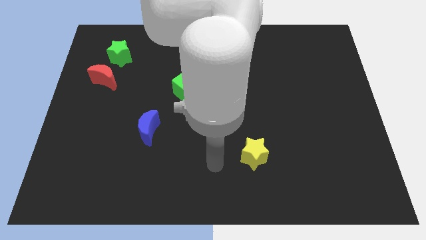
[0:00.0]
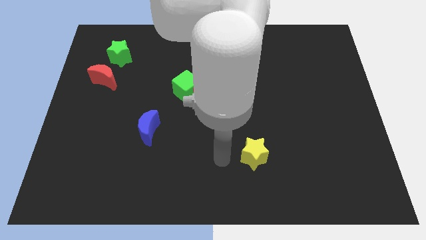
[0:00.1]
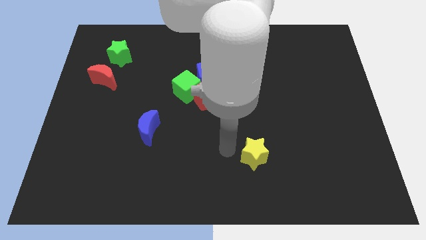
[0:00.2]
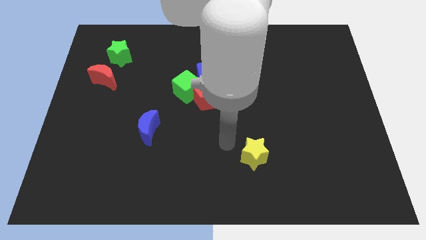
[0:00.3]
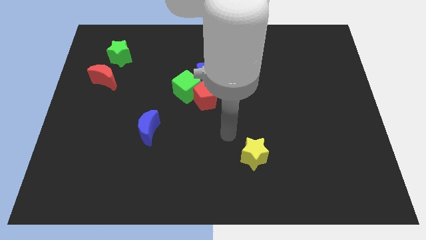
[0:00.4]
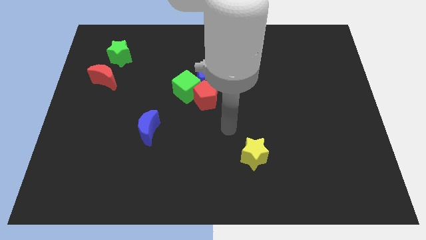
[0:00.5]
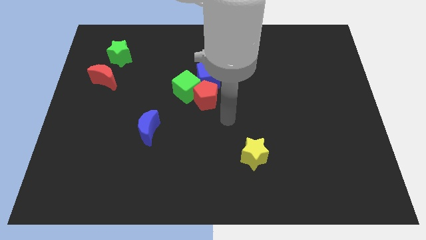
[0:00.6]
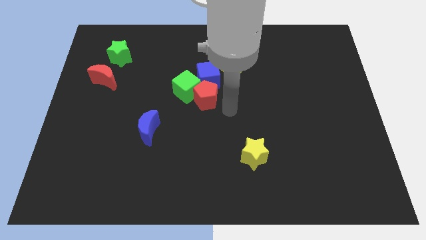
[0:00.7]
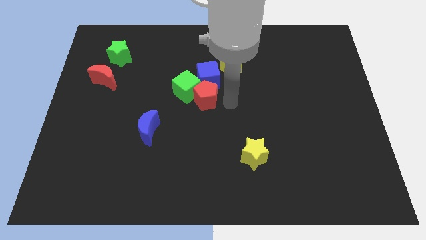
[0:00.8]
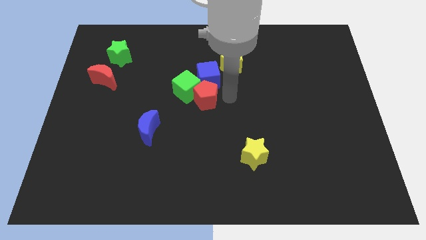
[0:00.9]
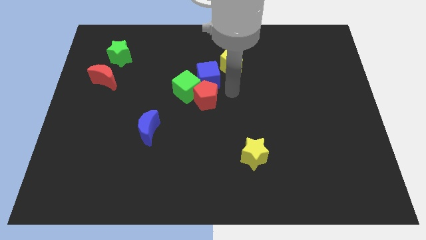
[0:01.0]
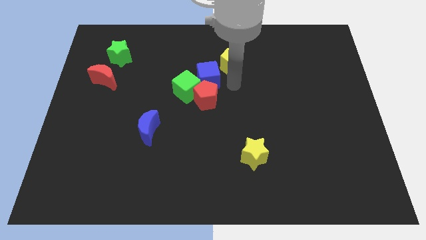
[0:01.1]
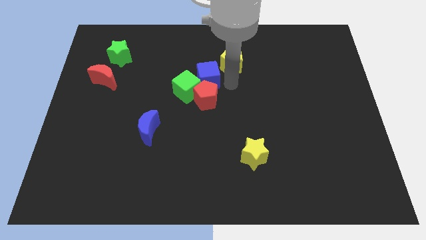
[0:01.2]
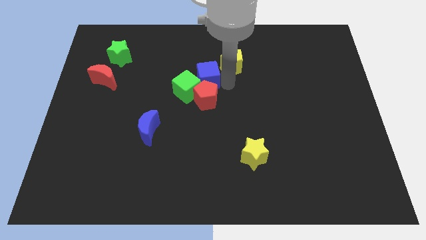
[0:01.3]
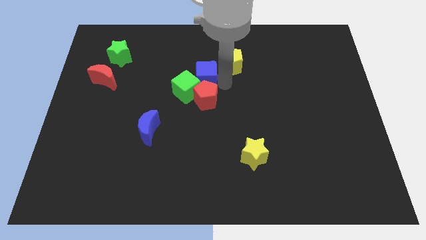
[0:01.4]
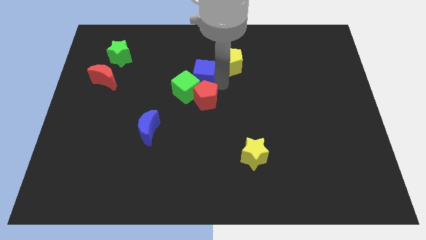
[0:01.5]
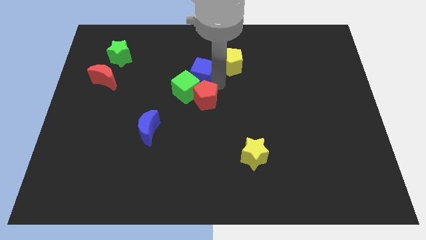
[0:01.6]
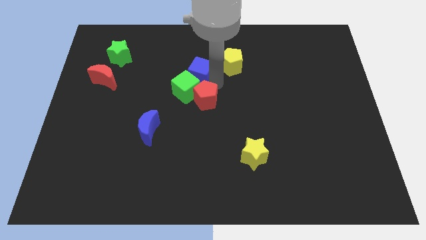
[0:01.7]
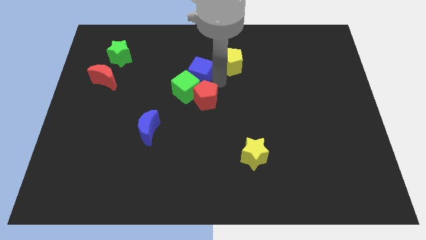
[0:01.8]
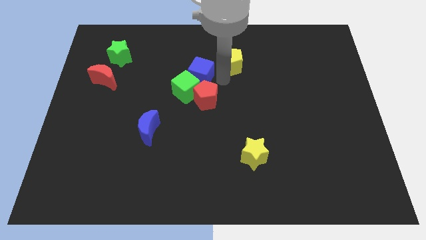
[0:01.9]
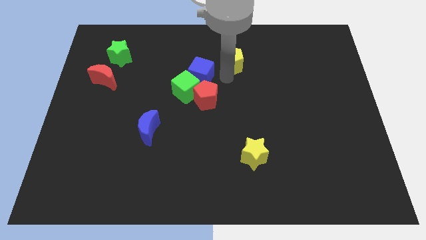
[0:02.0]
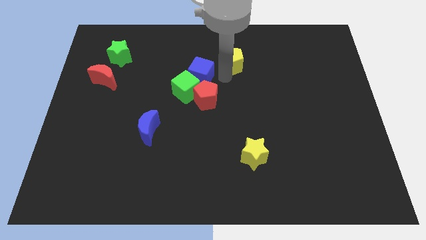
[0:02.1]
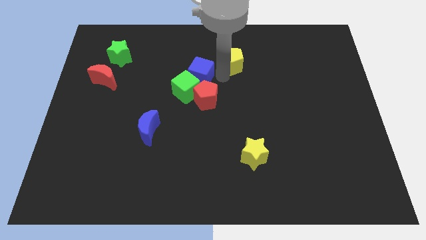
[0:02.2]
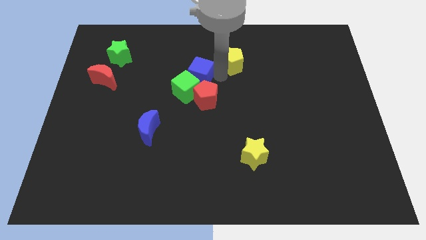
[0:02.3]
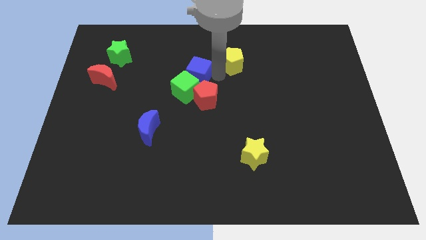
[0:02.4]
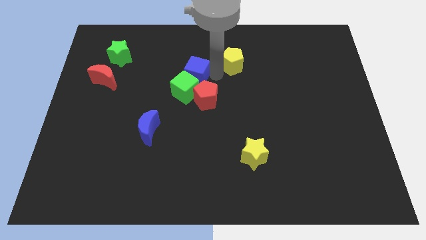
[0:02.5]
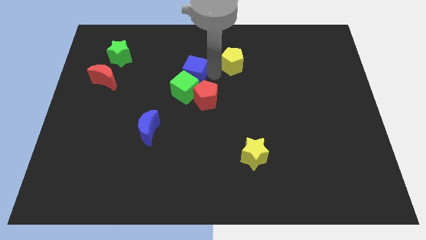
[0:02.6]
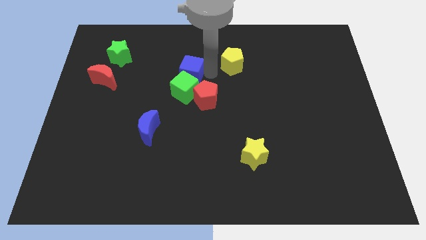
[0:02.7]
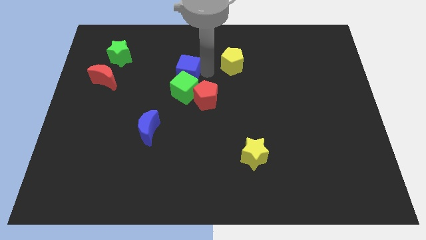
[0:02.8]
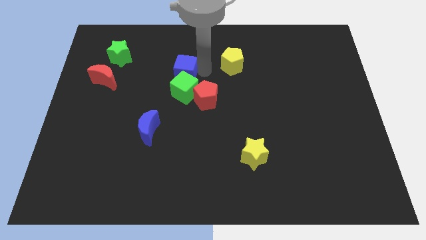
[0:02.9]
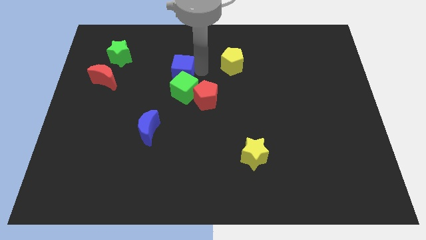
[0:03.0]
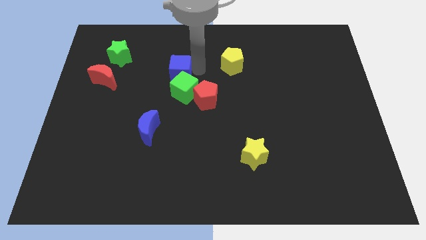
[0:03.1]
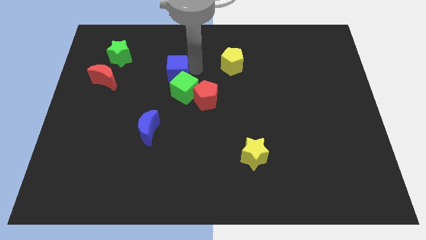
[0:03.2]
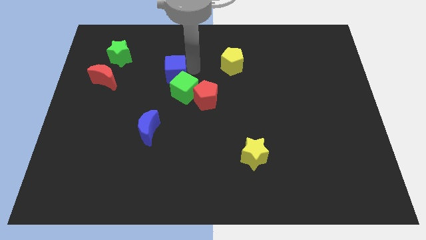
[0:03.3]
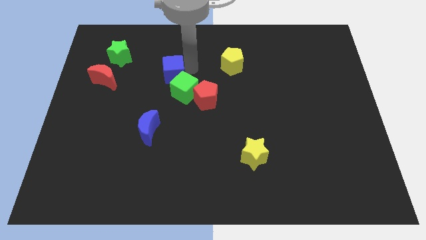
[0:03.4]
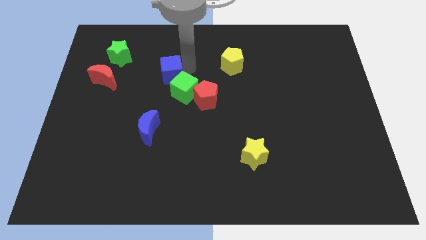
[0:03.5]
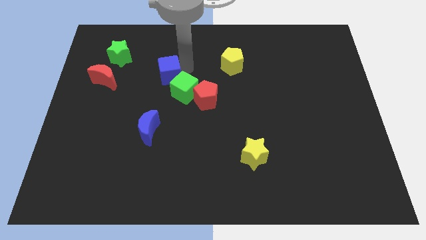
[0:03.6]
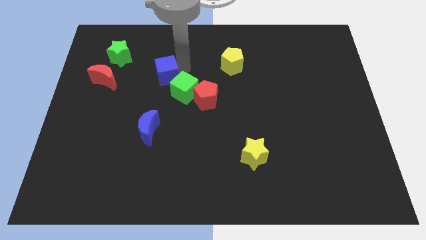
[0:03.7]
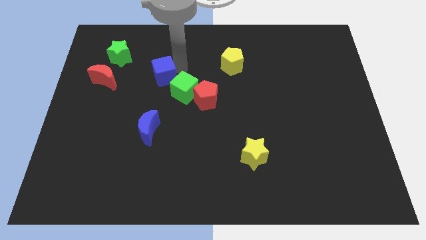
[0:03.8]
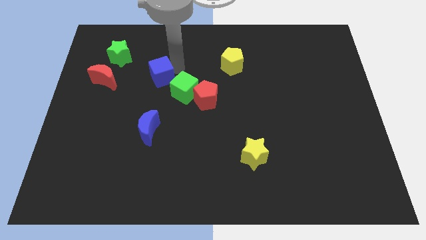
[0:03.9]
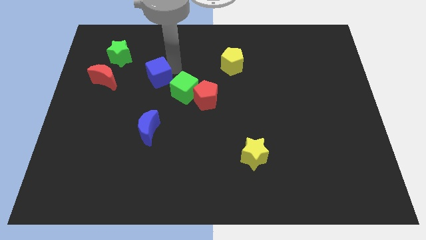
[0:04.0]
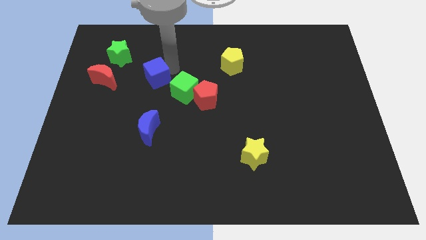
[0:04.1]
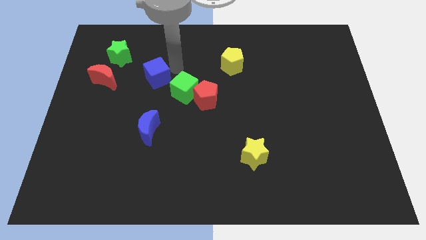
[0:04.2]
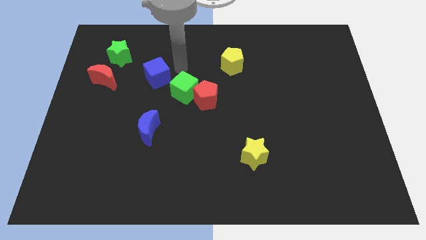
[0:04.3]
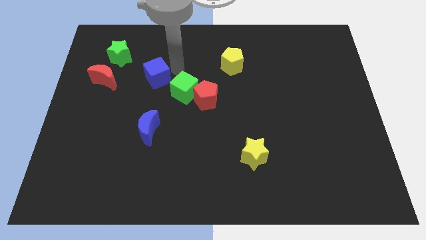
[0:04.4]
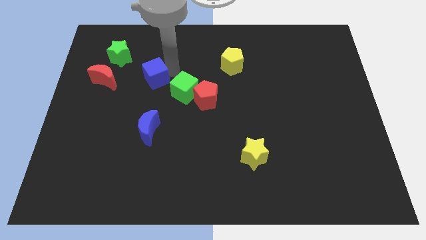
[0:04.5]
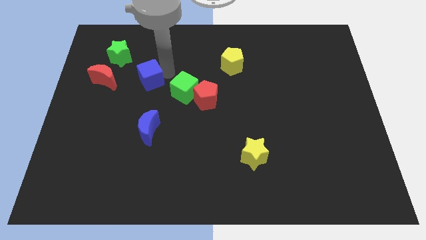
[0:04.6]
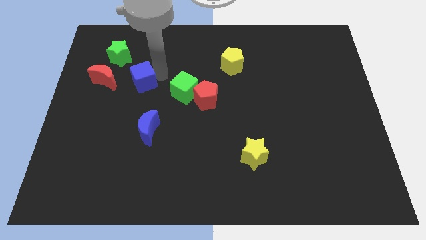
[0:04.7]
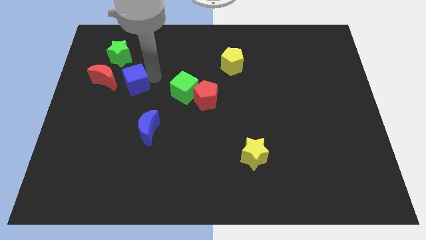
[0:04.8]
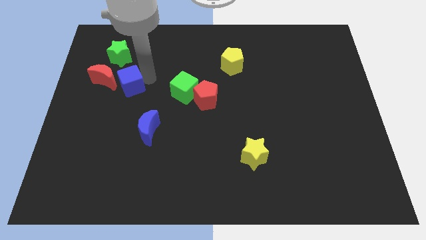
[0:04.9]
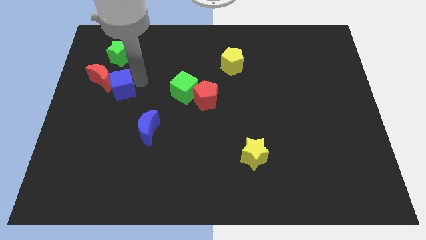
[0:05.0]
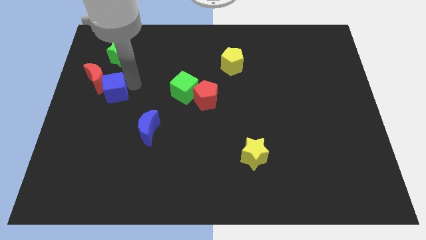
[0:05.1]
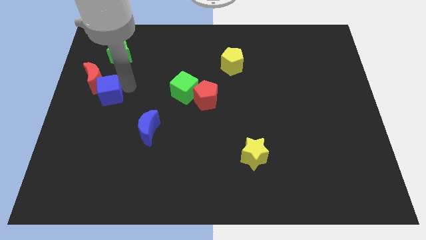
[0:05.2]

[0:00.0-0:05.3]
slide the blue cube to the left side of the board

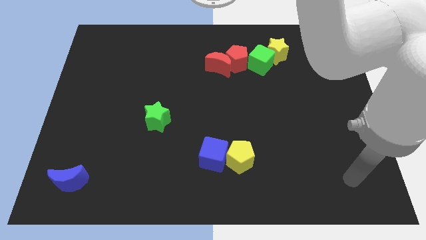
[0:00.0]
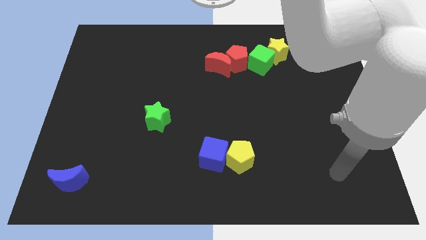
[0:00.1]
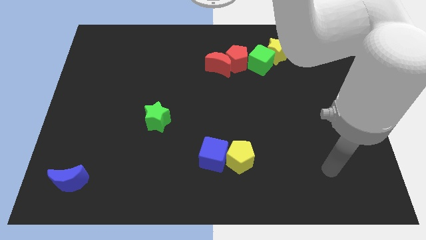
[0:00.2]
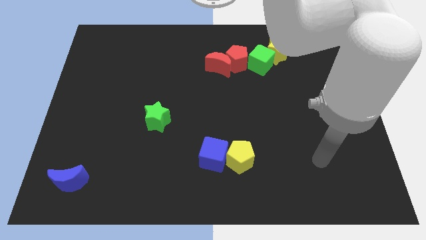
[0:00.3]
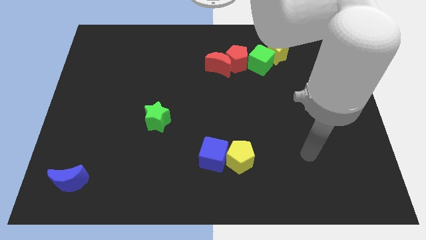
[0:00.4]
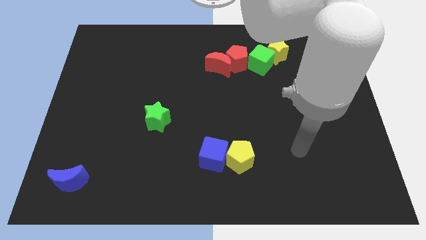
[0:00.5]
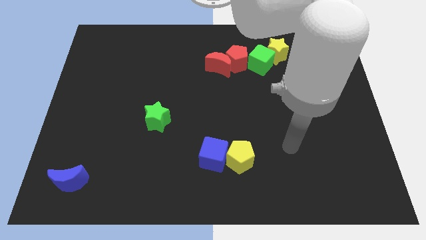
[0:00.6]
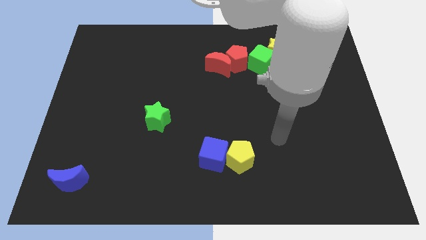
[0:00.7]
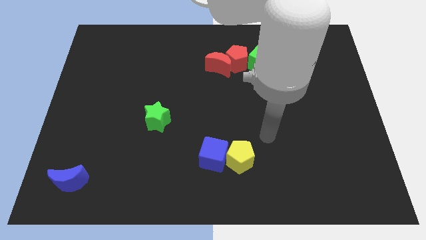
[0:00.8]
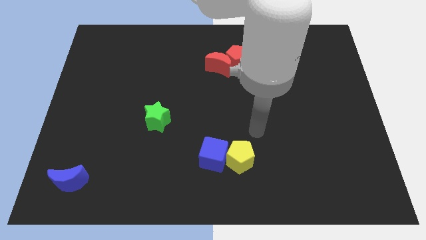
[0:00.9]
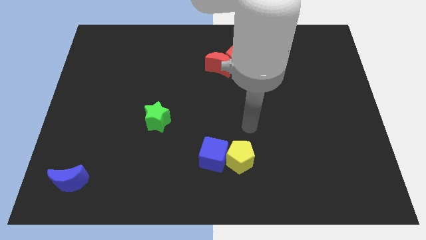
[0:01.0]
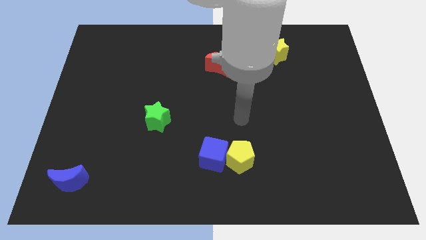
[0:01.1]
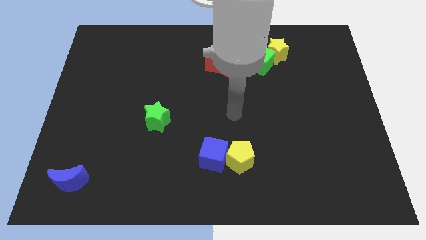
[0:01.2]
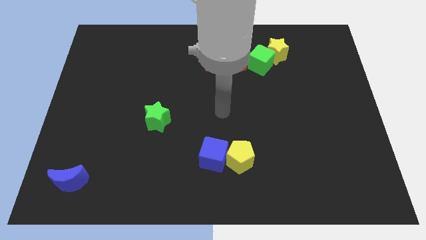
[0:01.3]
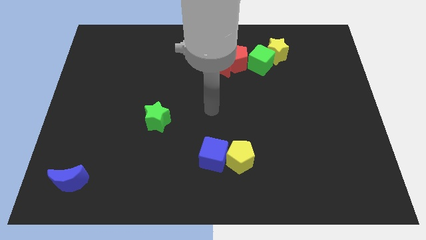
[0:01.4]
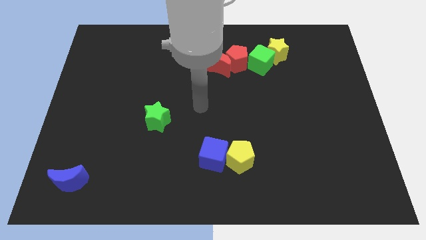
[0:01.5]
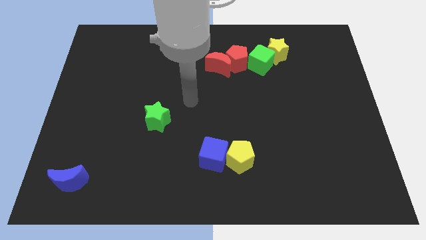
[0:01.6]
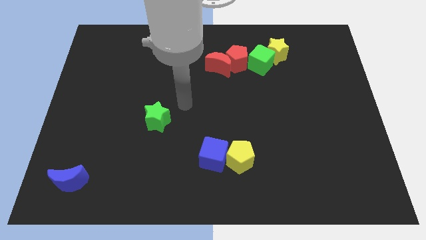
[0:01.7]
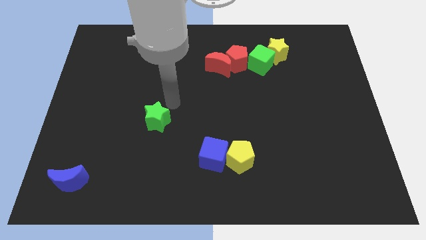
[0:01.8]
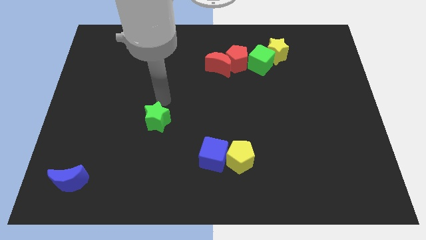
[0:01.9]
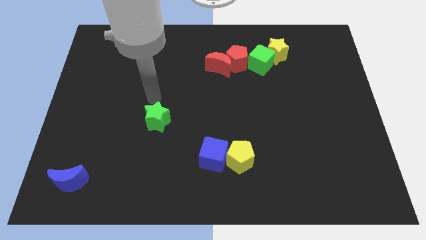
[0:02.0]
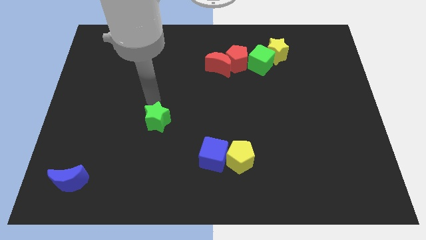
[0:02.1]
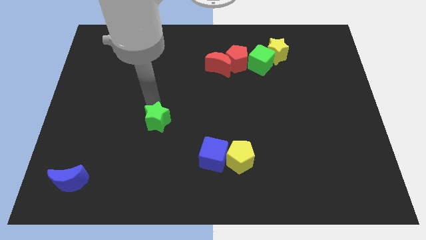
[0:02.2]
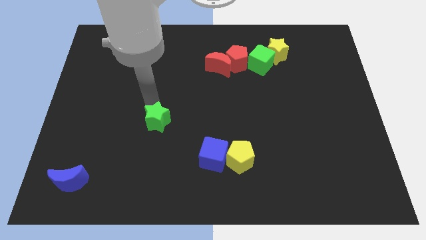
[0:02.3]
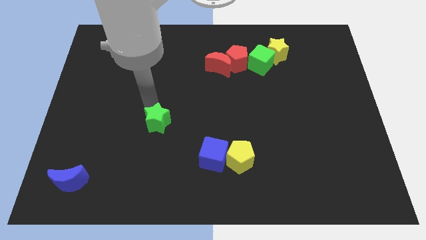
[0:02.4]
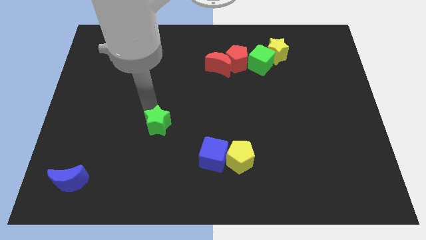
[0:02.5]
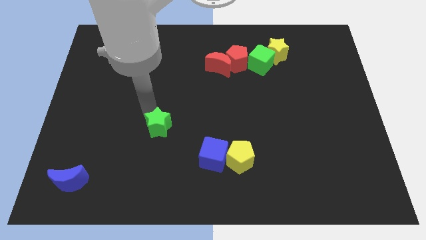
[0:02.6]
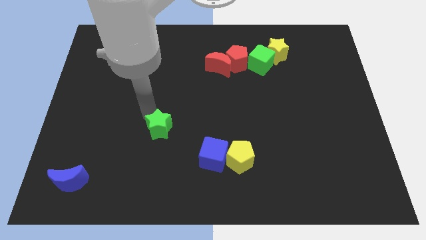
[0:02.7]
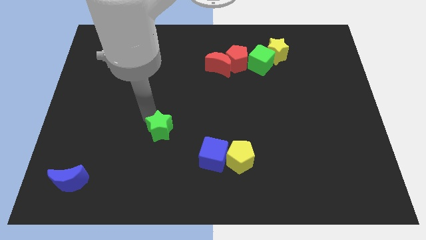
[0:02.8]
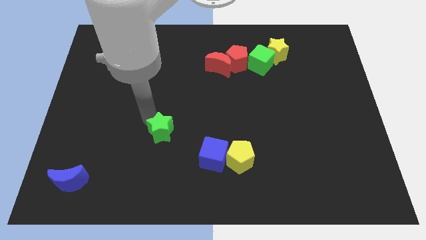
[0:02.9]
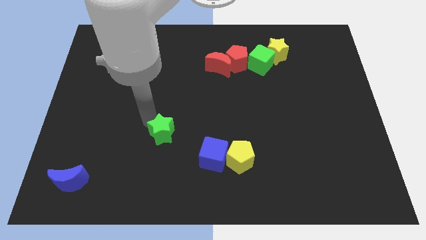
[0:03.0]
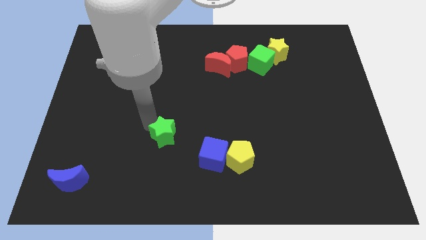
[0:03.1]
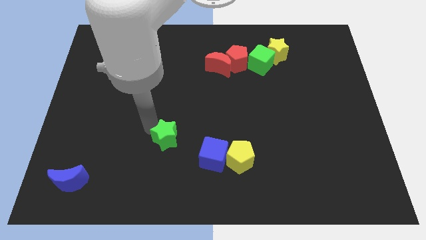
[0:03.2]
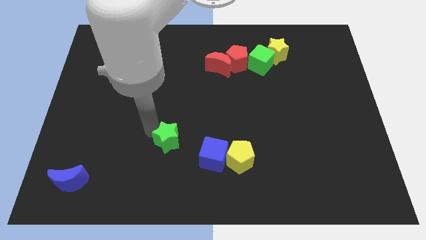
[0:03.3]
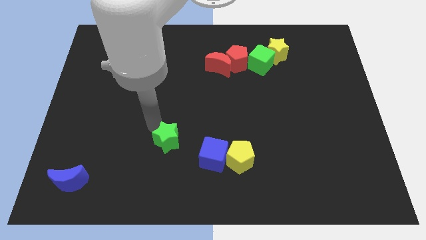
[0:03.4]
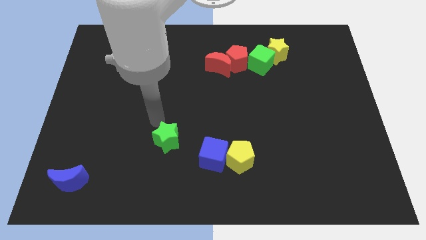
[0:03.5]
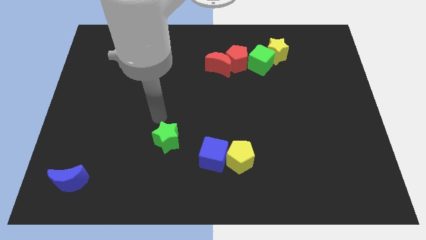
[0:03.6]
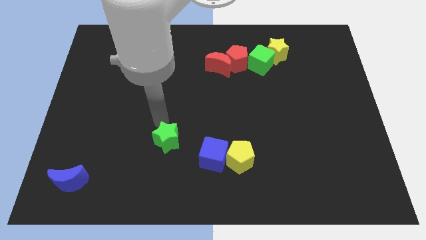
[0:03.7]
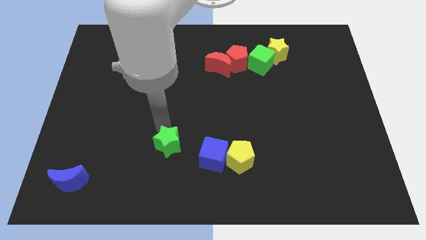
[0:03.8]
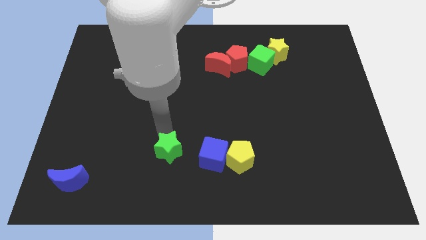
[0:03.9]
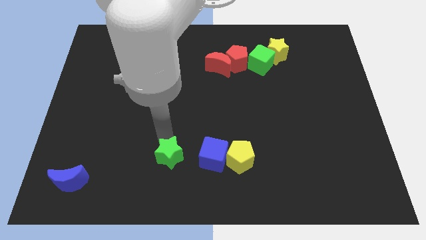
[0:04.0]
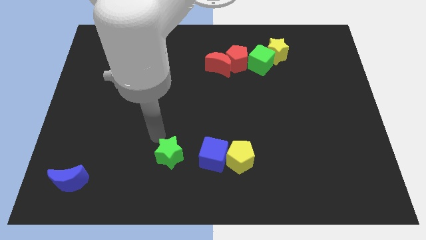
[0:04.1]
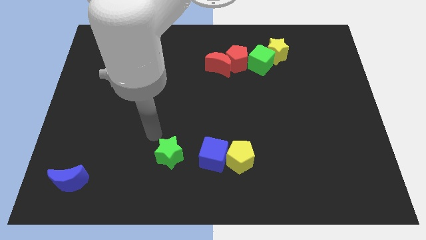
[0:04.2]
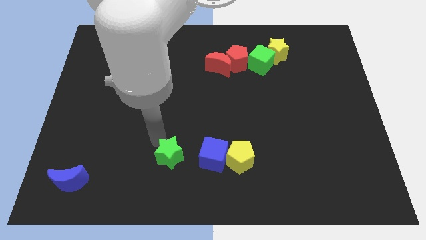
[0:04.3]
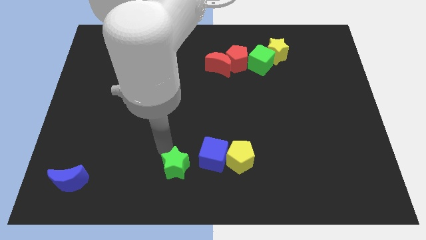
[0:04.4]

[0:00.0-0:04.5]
move the green star to the bottom
